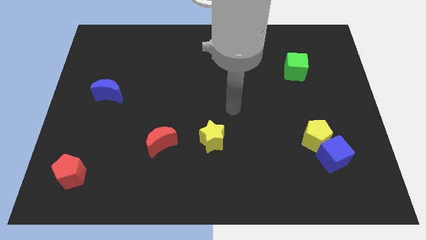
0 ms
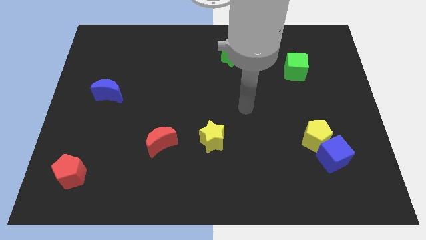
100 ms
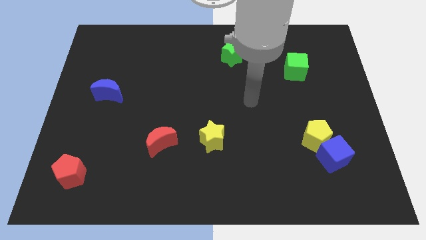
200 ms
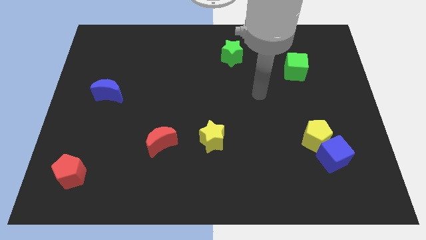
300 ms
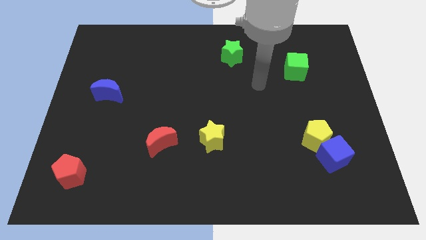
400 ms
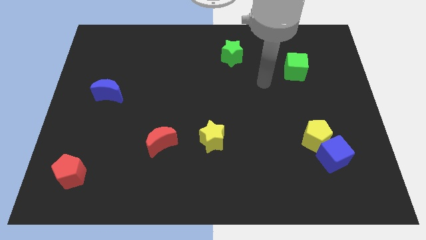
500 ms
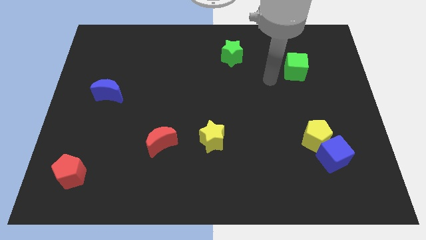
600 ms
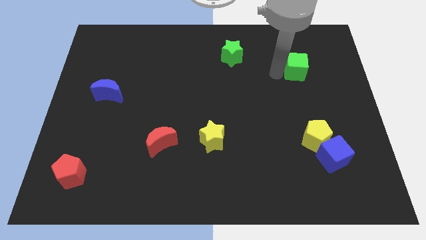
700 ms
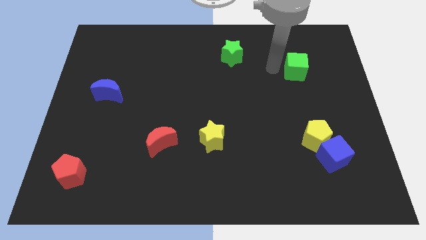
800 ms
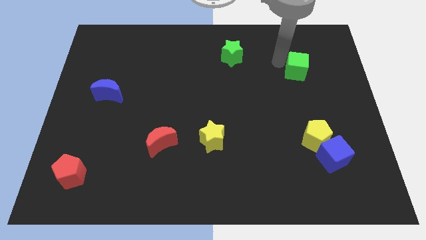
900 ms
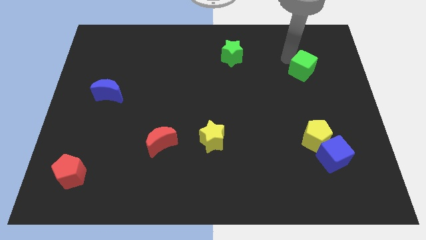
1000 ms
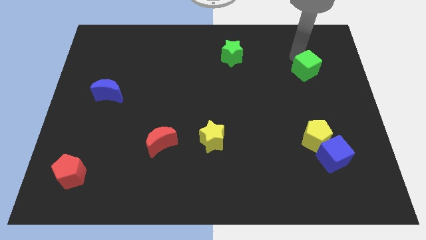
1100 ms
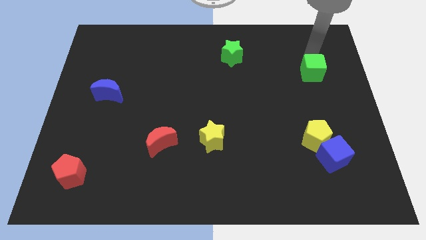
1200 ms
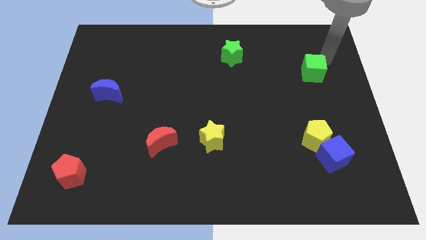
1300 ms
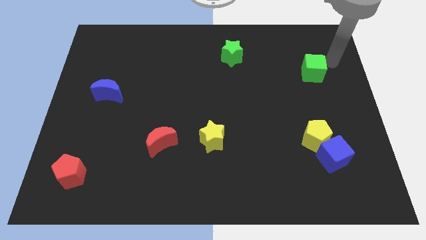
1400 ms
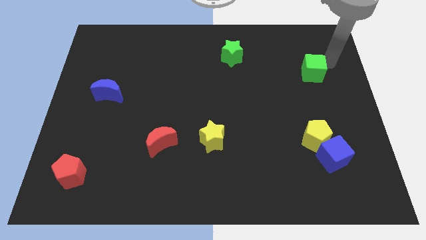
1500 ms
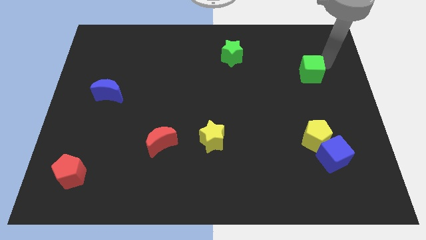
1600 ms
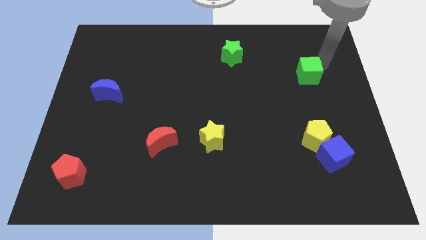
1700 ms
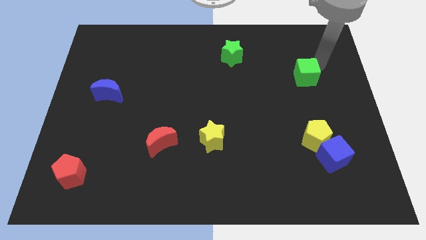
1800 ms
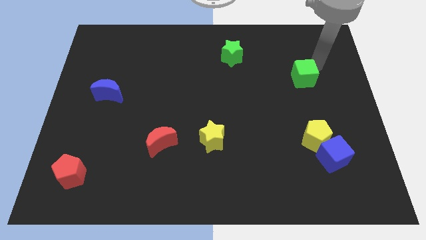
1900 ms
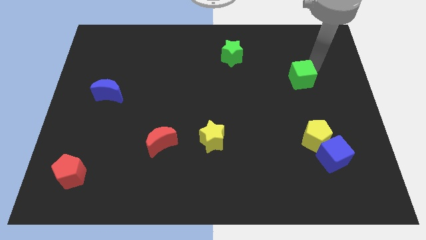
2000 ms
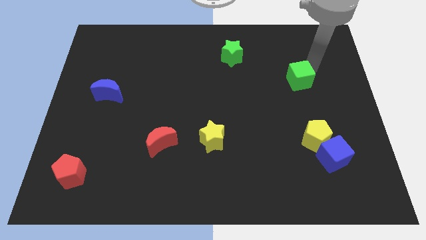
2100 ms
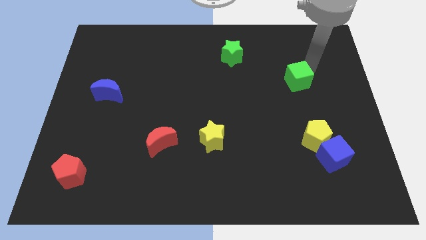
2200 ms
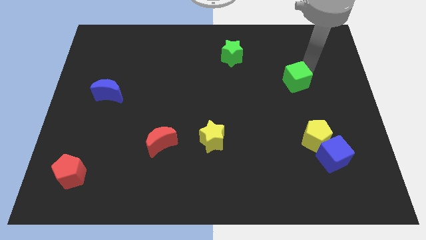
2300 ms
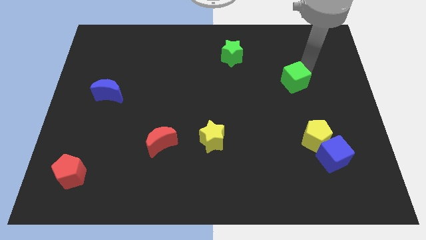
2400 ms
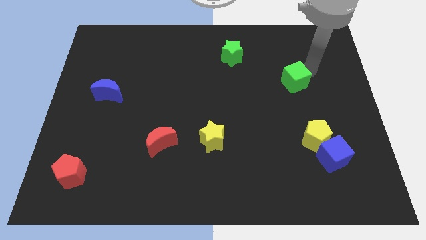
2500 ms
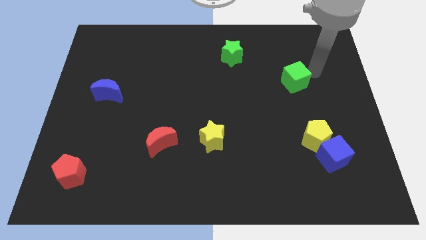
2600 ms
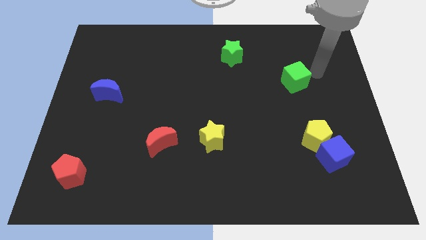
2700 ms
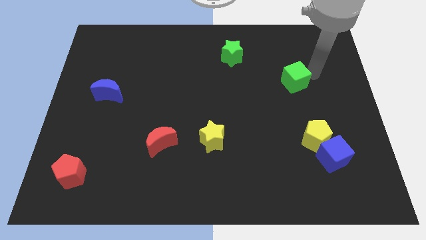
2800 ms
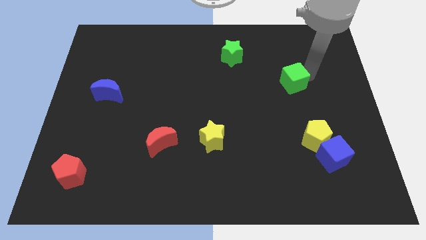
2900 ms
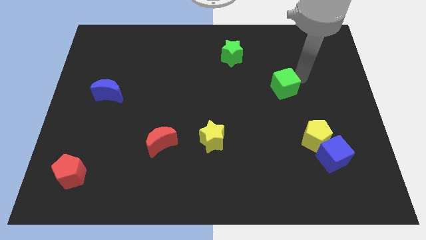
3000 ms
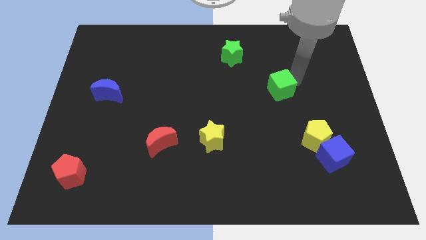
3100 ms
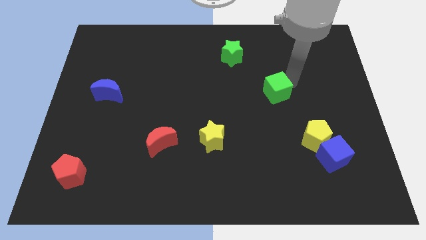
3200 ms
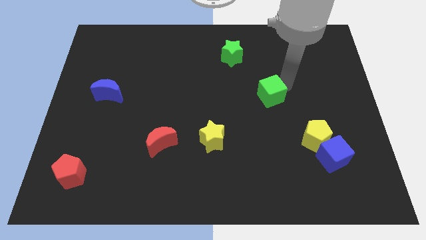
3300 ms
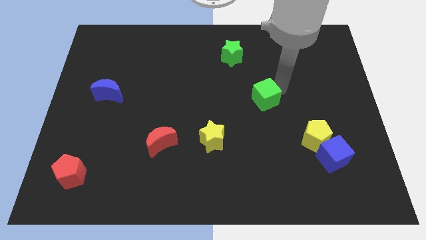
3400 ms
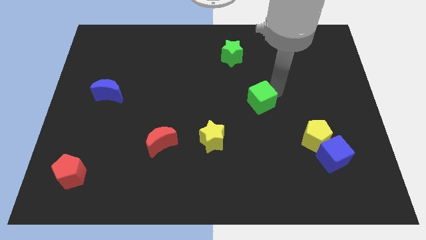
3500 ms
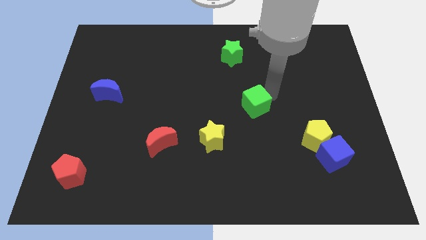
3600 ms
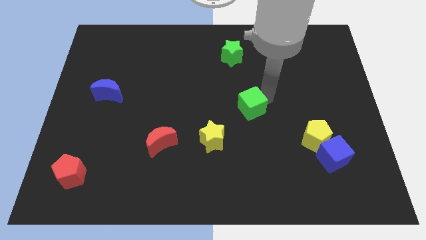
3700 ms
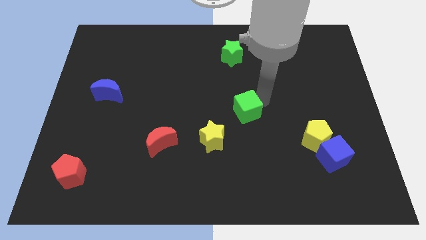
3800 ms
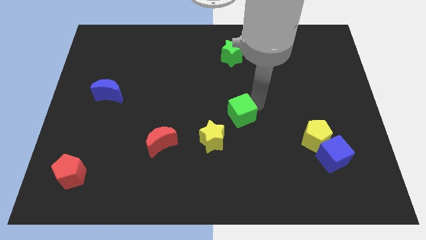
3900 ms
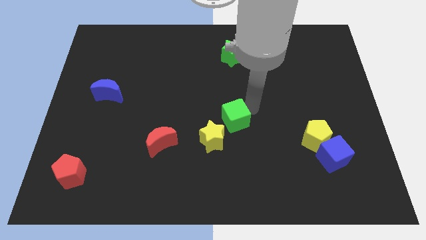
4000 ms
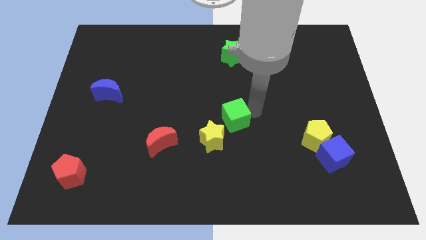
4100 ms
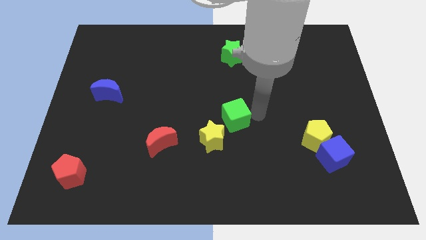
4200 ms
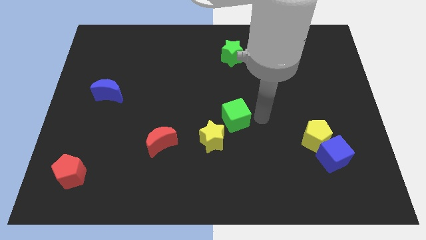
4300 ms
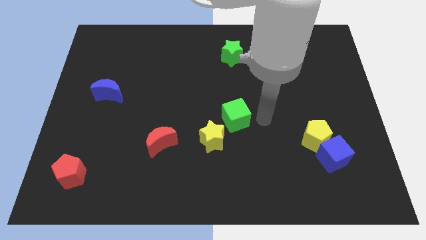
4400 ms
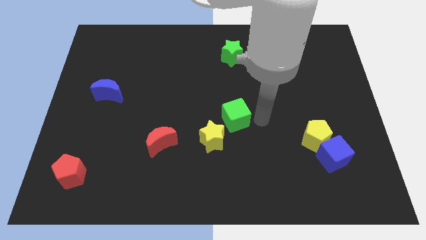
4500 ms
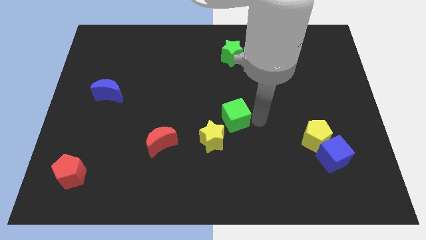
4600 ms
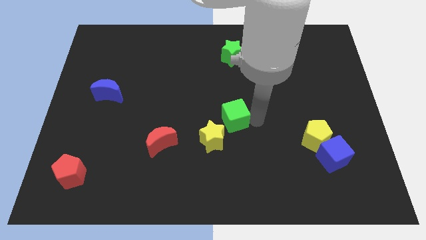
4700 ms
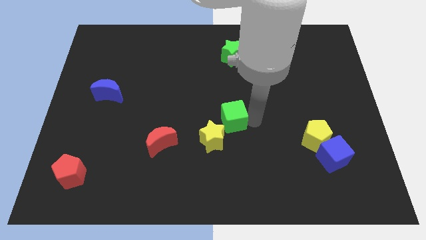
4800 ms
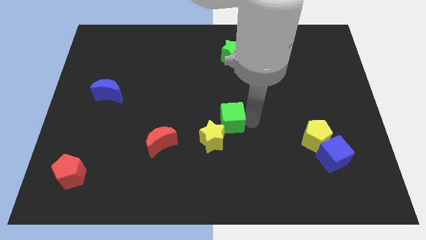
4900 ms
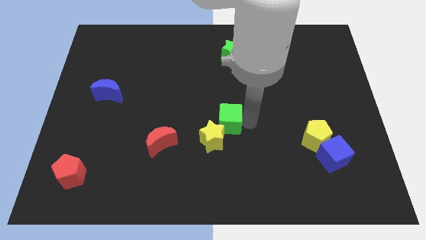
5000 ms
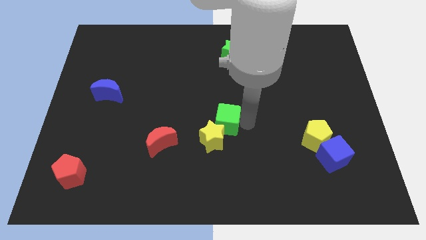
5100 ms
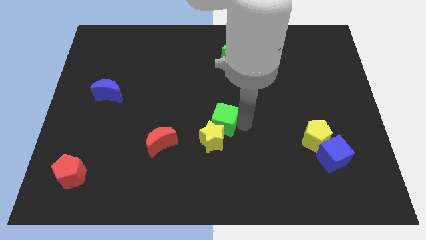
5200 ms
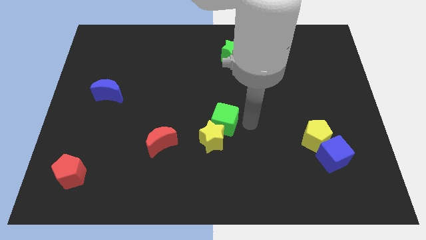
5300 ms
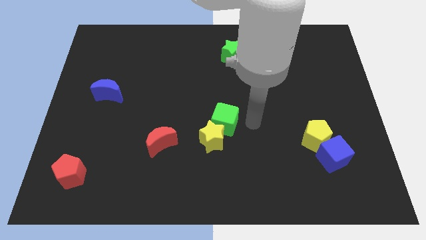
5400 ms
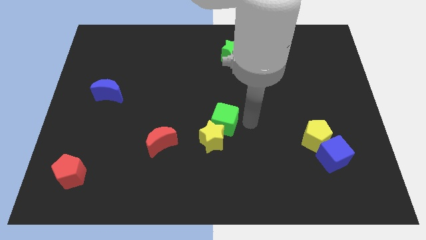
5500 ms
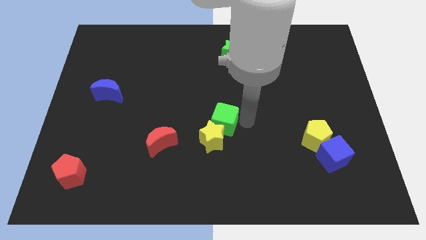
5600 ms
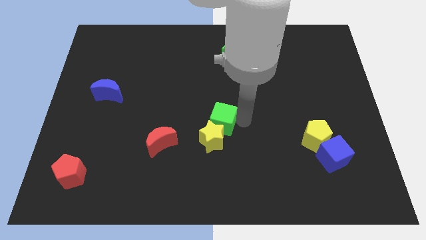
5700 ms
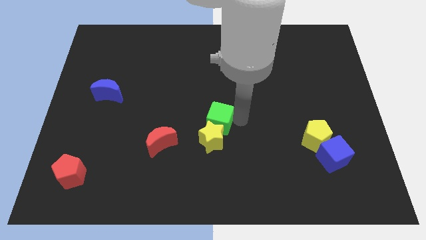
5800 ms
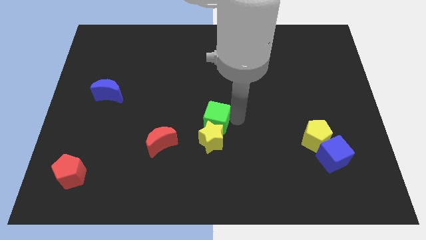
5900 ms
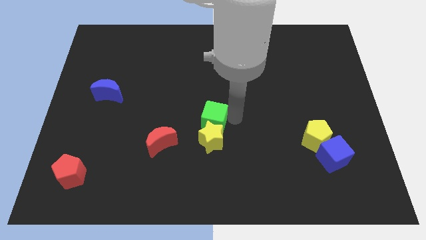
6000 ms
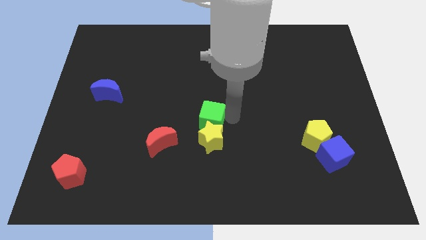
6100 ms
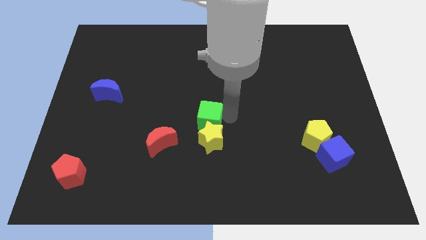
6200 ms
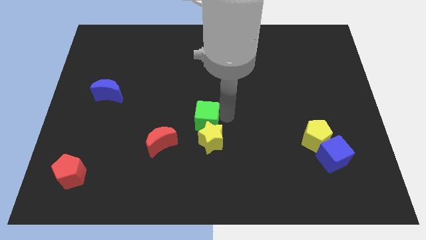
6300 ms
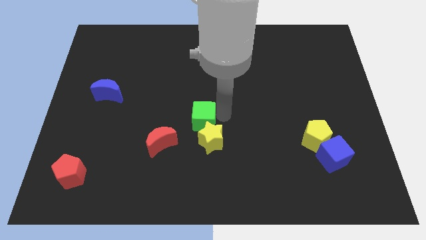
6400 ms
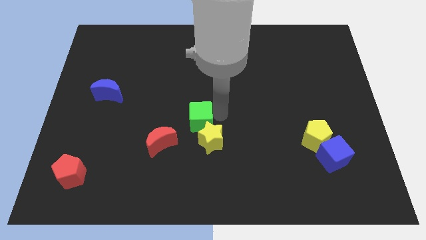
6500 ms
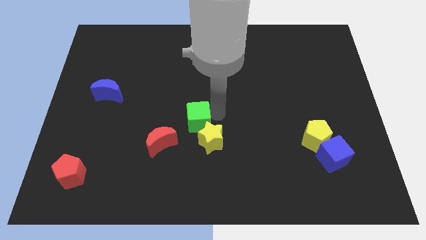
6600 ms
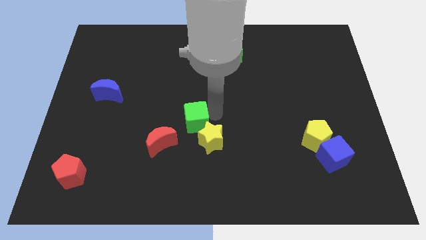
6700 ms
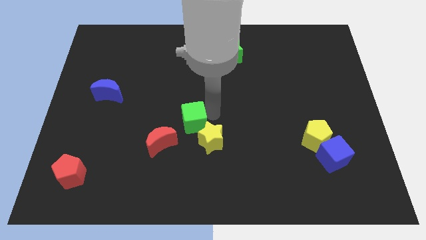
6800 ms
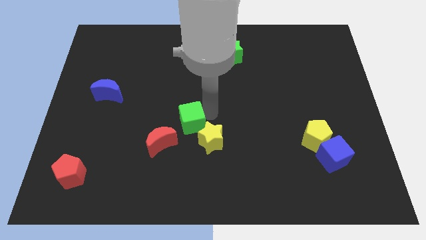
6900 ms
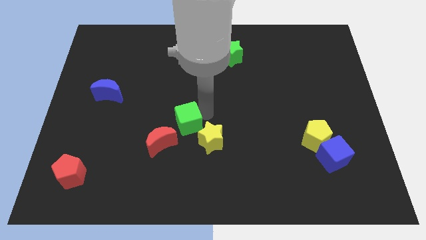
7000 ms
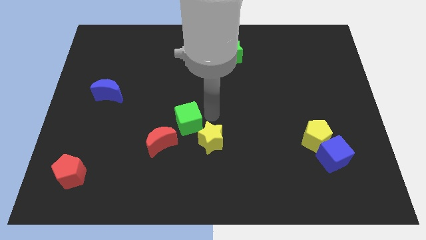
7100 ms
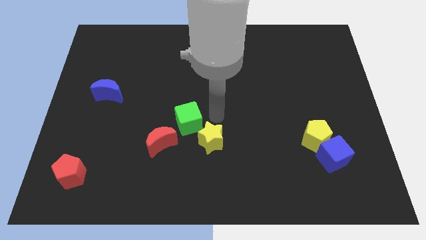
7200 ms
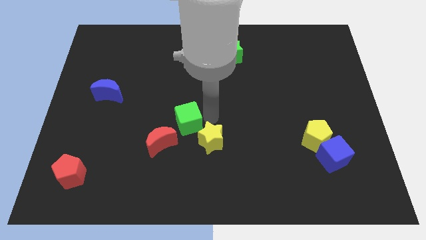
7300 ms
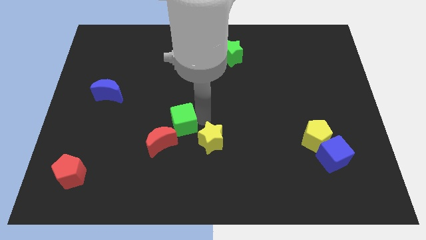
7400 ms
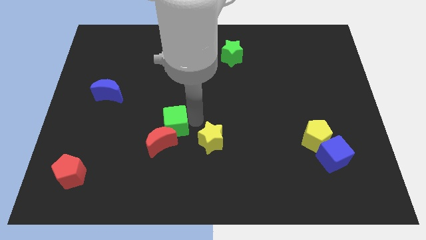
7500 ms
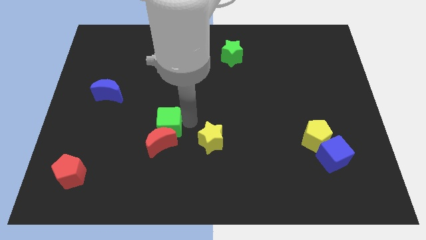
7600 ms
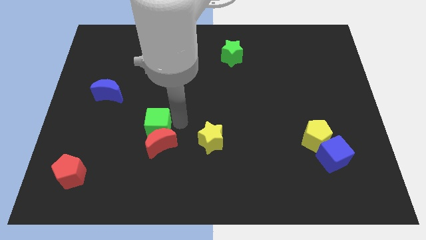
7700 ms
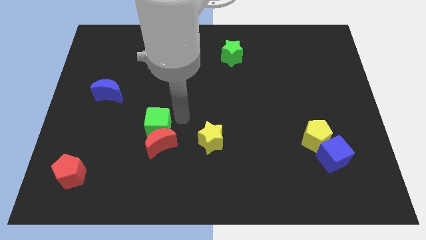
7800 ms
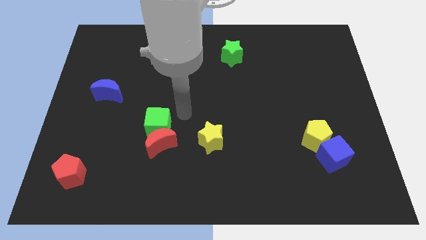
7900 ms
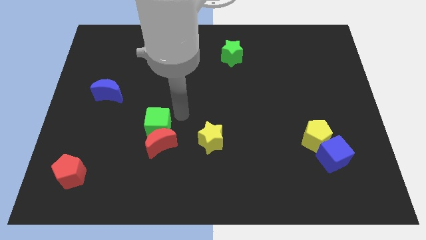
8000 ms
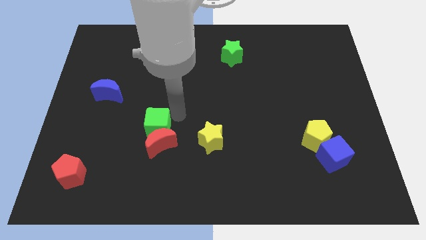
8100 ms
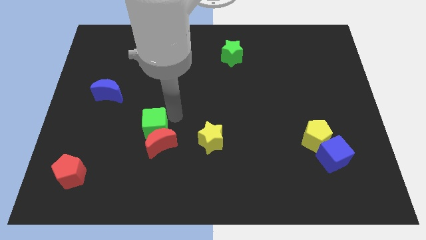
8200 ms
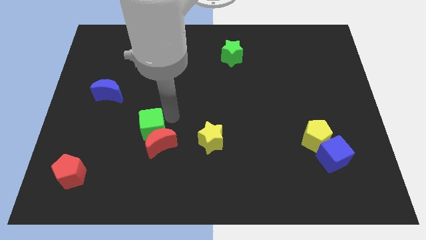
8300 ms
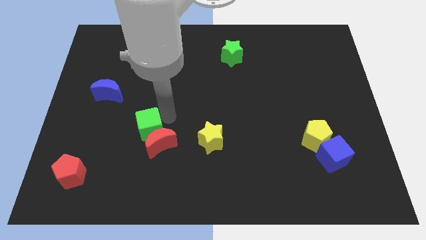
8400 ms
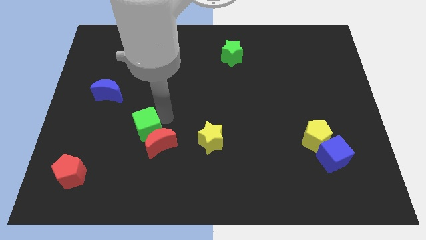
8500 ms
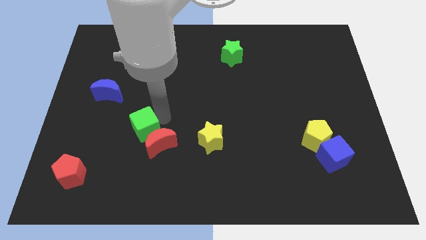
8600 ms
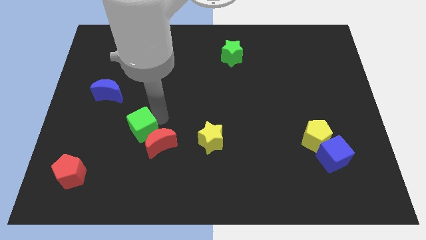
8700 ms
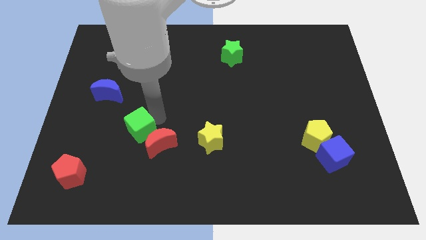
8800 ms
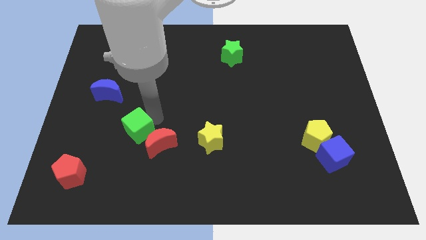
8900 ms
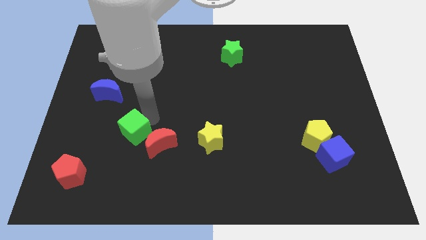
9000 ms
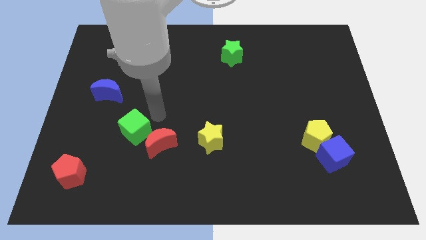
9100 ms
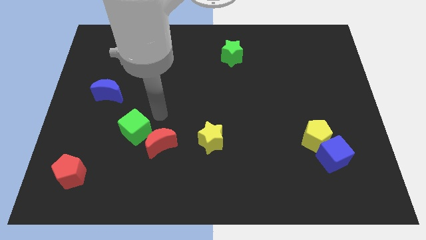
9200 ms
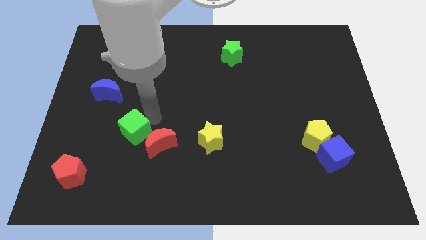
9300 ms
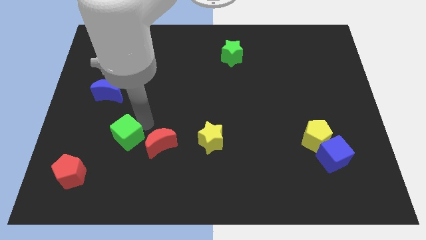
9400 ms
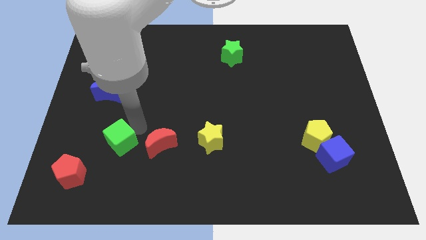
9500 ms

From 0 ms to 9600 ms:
put the green cube diagonally up and to the right of the red pentagon
